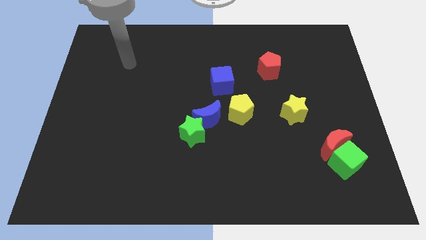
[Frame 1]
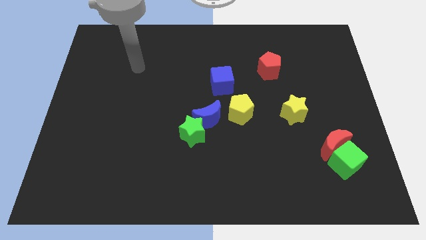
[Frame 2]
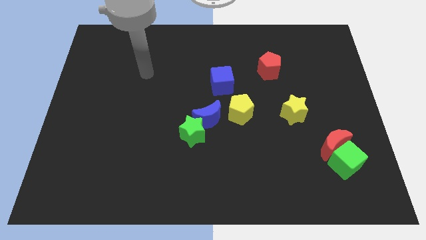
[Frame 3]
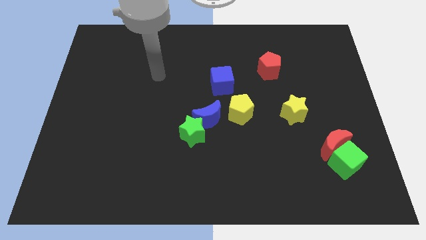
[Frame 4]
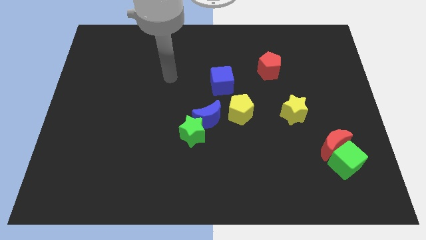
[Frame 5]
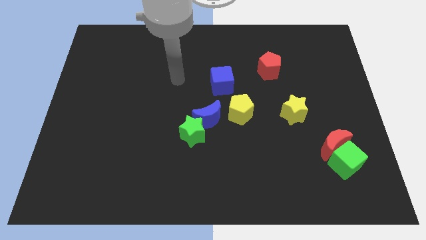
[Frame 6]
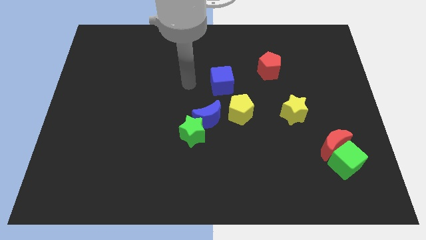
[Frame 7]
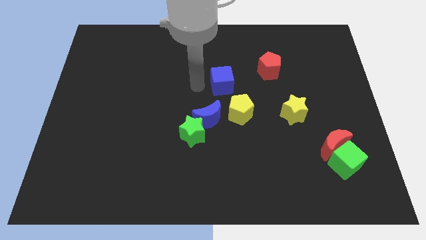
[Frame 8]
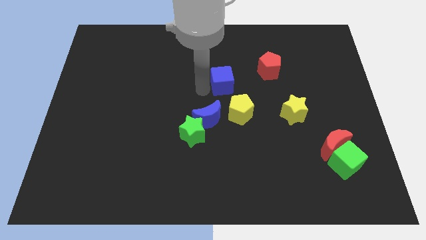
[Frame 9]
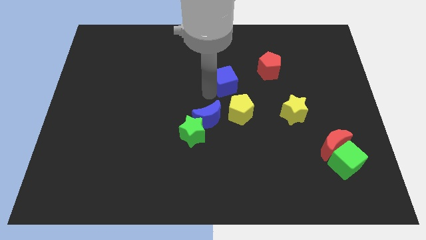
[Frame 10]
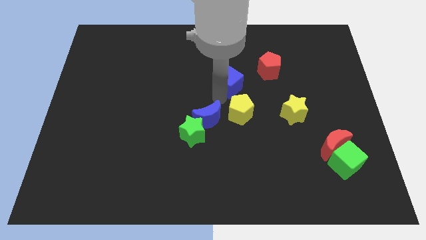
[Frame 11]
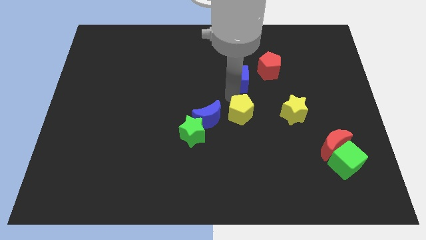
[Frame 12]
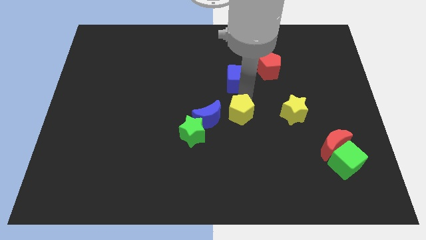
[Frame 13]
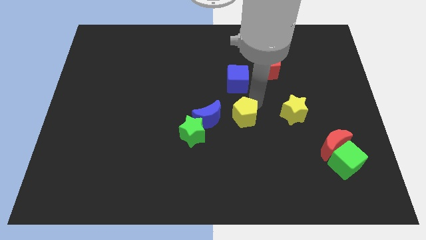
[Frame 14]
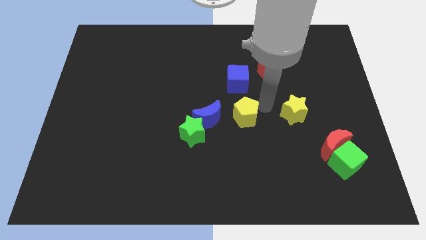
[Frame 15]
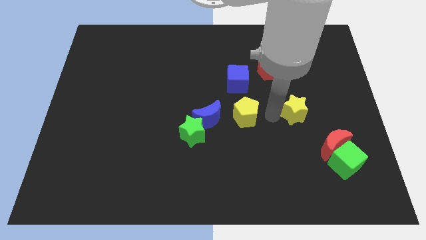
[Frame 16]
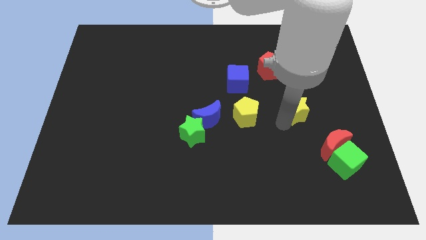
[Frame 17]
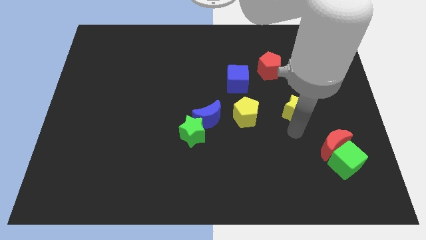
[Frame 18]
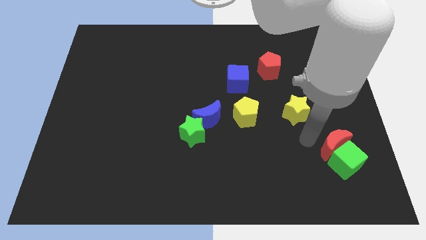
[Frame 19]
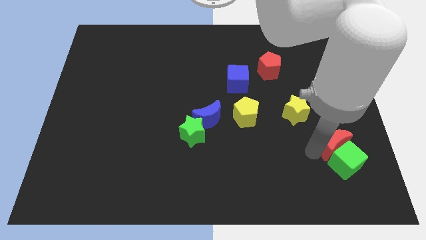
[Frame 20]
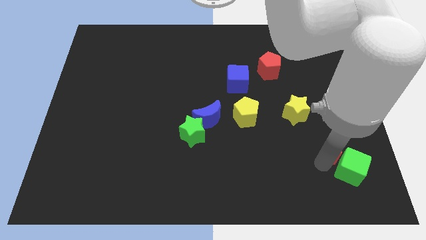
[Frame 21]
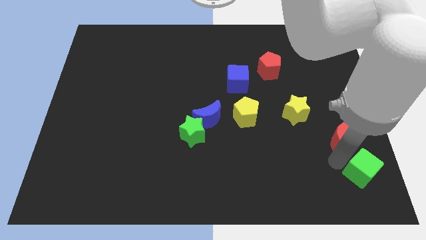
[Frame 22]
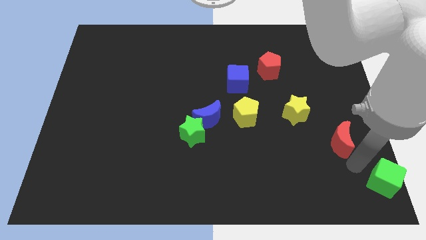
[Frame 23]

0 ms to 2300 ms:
separate the red moon from the green cube

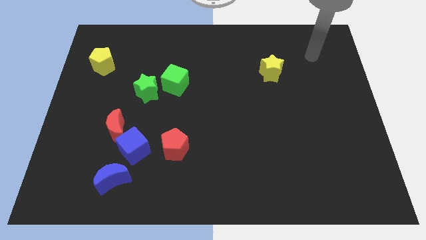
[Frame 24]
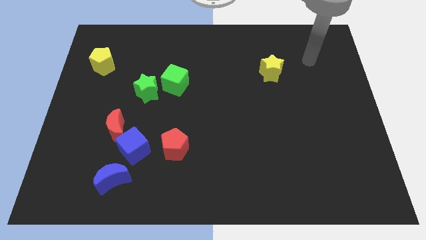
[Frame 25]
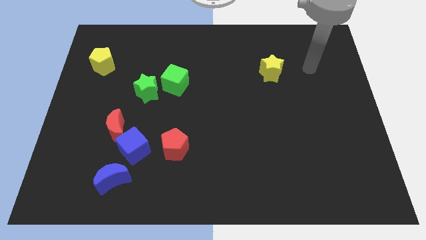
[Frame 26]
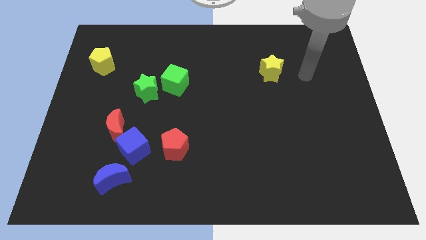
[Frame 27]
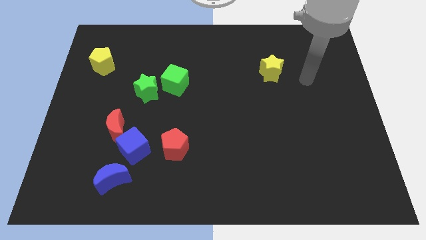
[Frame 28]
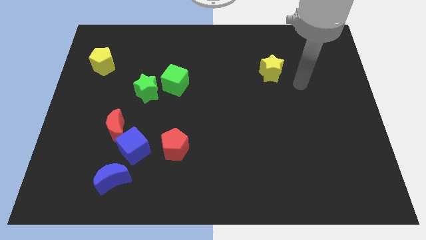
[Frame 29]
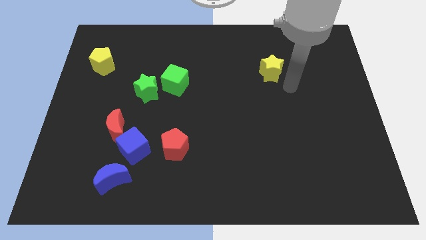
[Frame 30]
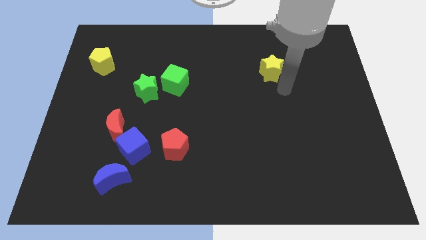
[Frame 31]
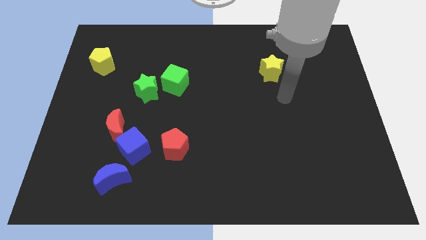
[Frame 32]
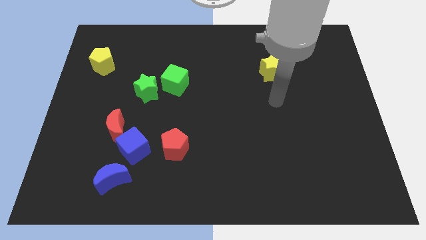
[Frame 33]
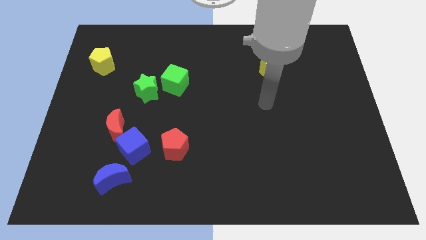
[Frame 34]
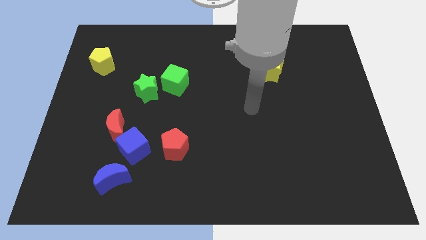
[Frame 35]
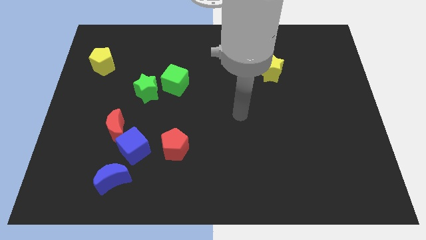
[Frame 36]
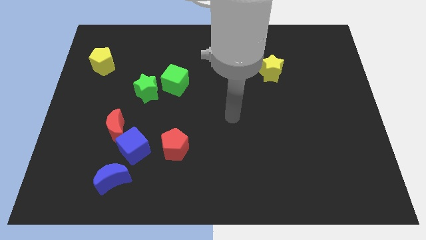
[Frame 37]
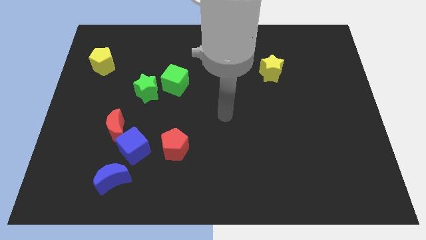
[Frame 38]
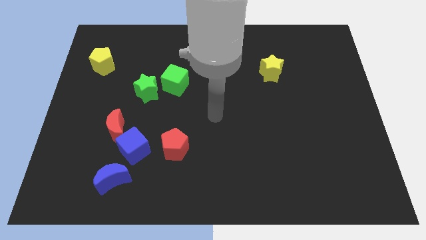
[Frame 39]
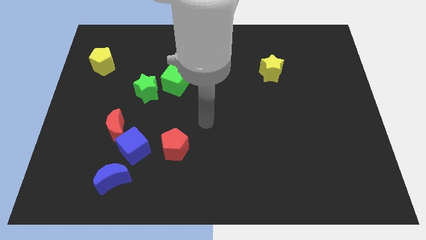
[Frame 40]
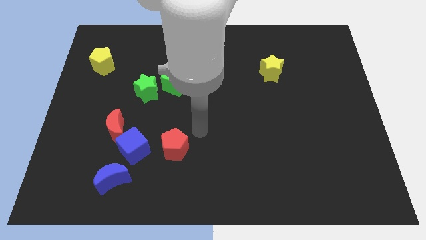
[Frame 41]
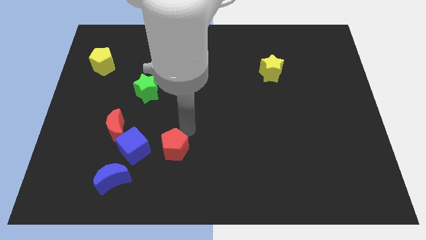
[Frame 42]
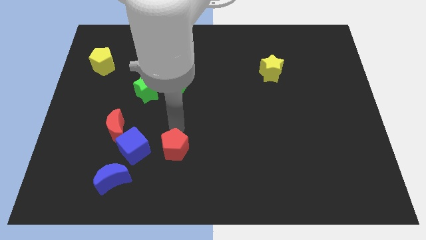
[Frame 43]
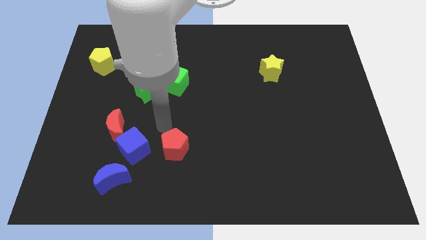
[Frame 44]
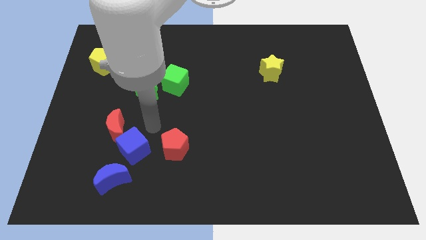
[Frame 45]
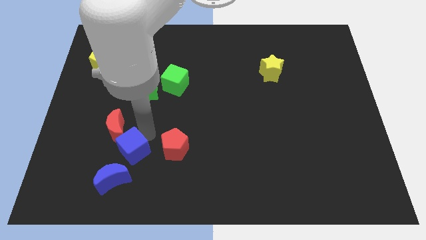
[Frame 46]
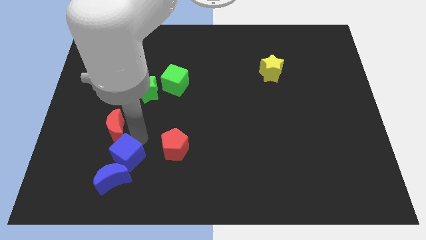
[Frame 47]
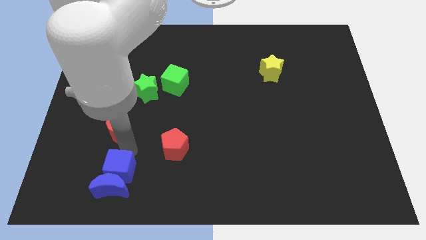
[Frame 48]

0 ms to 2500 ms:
move the red moon away from the blue cube

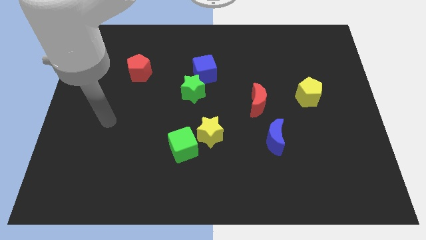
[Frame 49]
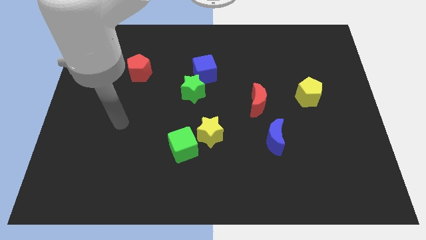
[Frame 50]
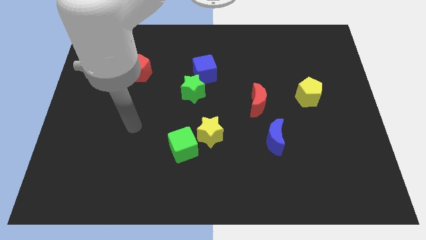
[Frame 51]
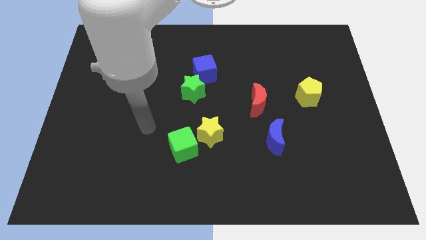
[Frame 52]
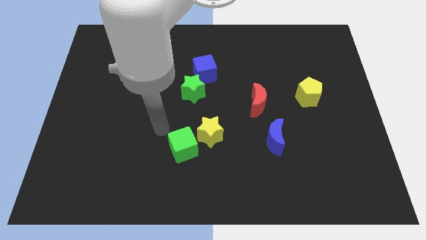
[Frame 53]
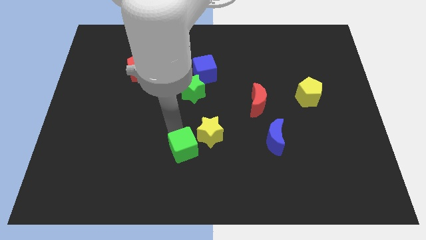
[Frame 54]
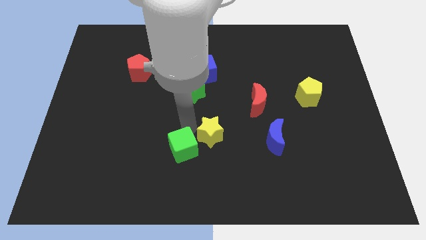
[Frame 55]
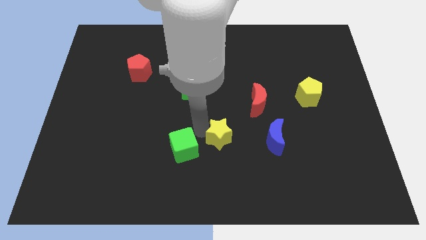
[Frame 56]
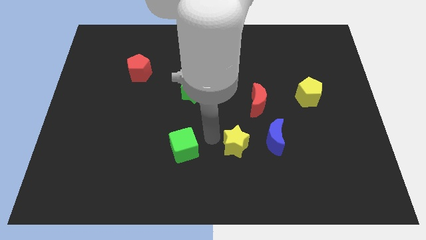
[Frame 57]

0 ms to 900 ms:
pull the green cube apart from the yellow star

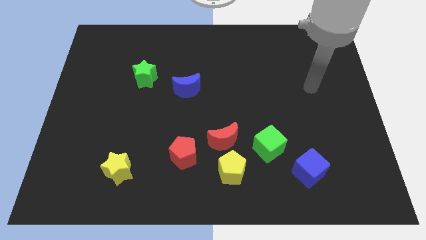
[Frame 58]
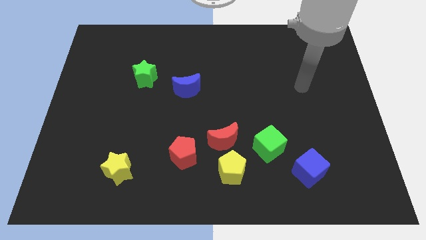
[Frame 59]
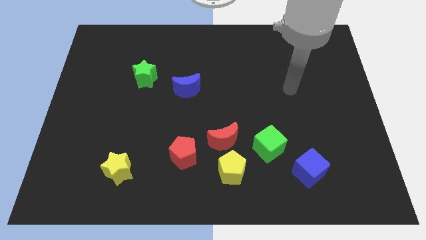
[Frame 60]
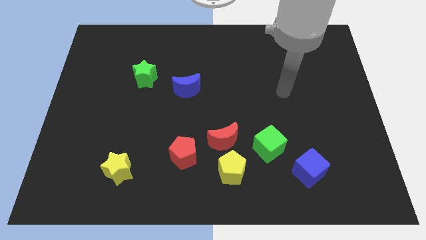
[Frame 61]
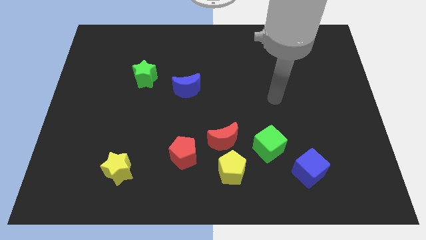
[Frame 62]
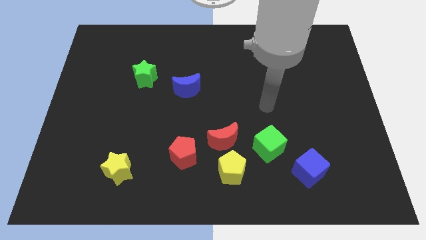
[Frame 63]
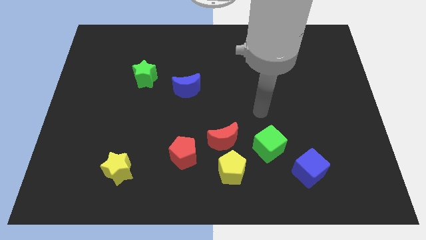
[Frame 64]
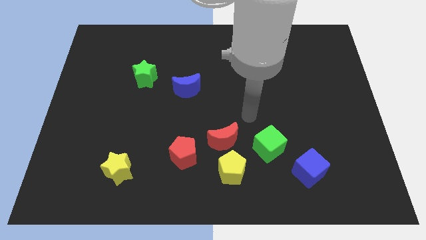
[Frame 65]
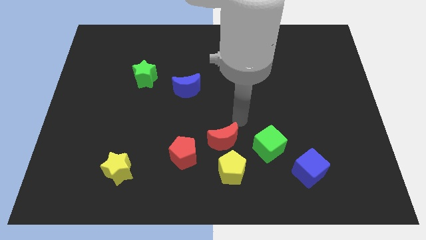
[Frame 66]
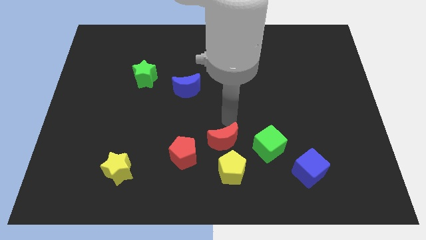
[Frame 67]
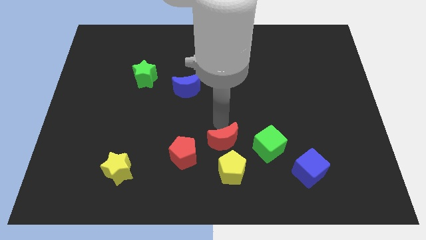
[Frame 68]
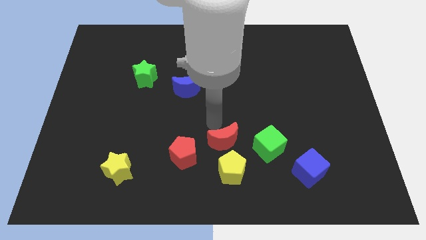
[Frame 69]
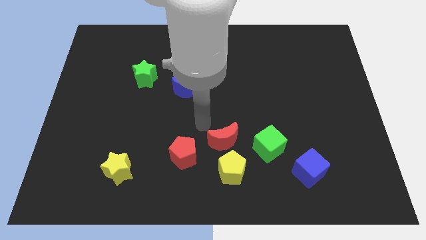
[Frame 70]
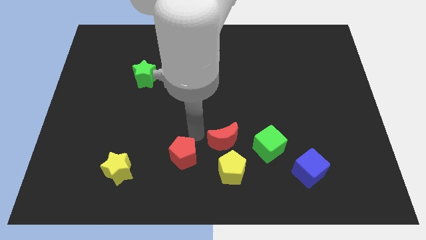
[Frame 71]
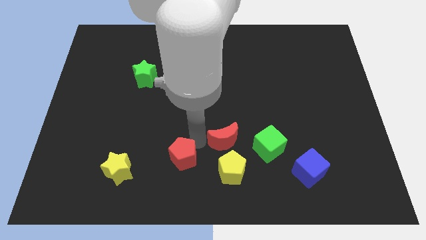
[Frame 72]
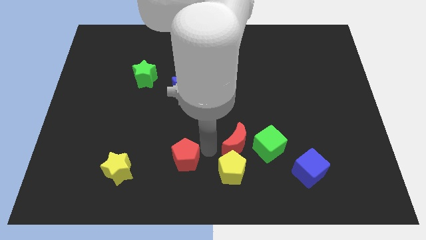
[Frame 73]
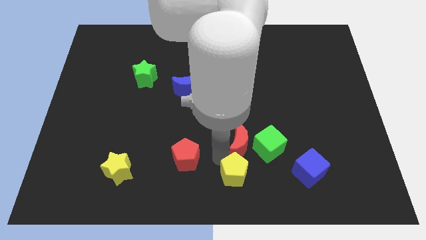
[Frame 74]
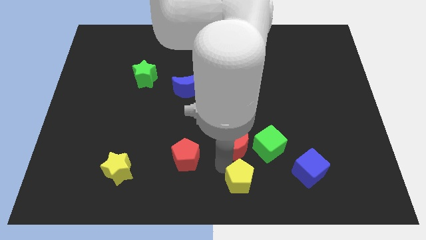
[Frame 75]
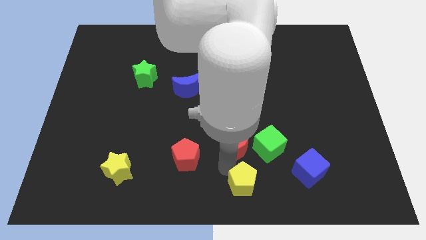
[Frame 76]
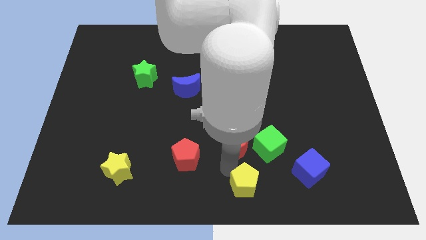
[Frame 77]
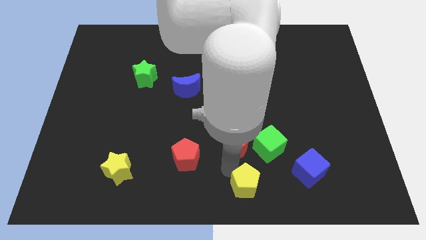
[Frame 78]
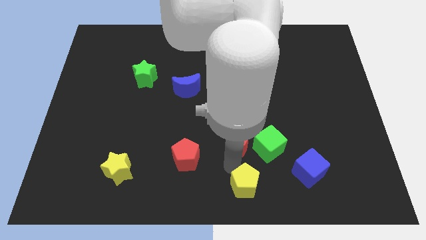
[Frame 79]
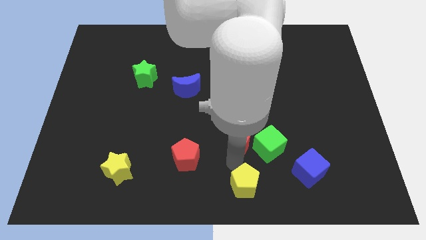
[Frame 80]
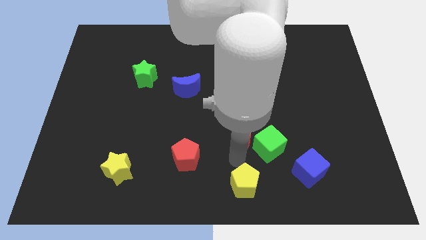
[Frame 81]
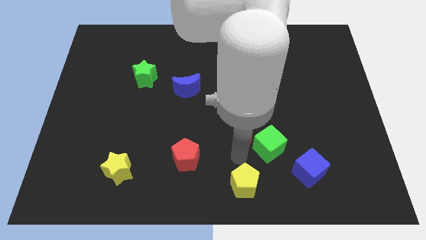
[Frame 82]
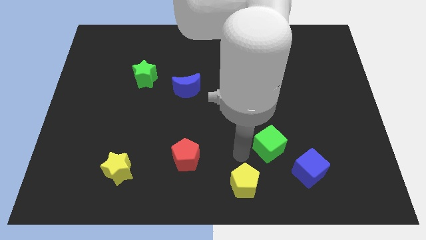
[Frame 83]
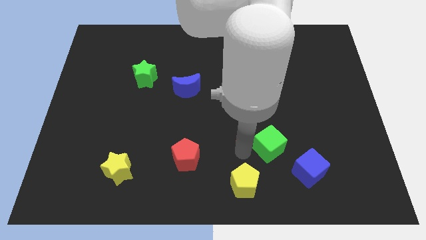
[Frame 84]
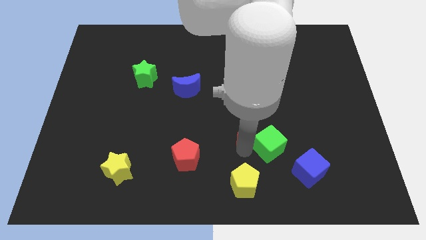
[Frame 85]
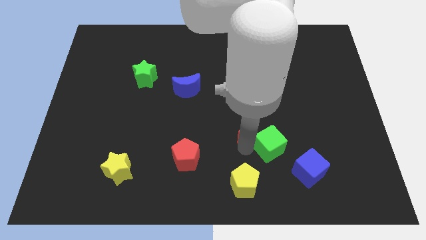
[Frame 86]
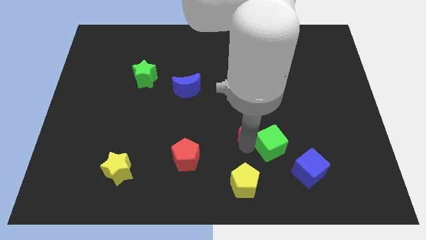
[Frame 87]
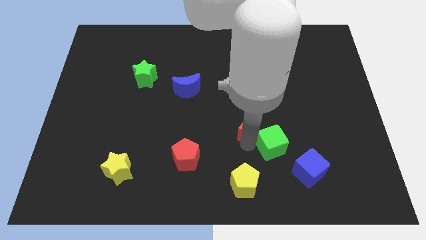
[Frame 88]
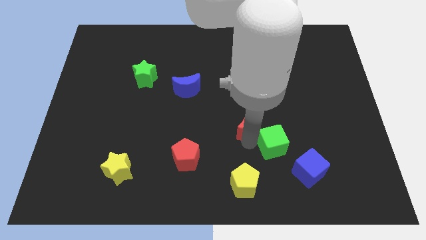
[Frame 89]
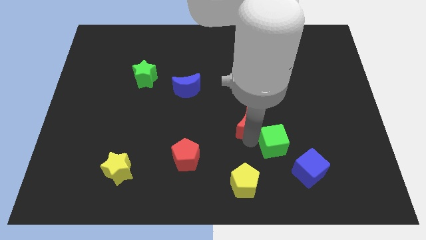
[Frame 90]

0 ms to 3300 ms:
pull the red moon apart from the yellow pentagon, red pentagon, and green cube

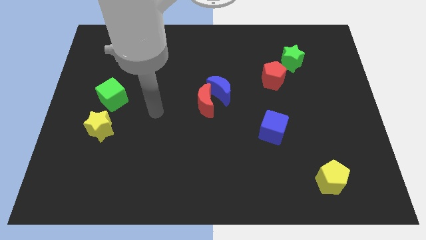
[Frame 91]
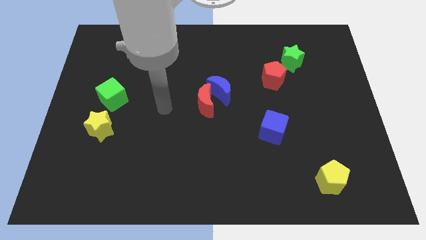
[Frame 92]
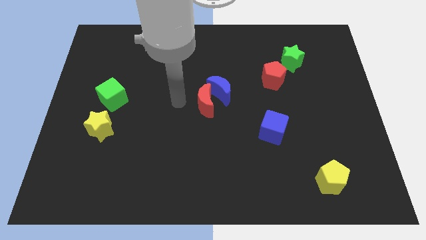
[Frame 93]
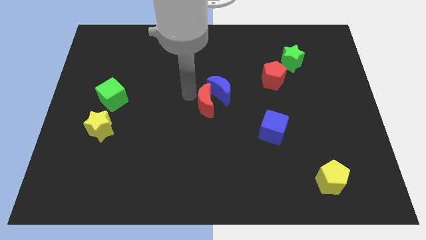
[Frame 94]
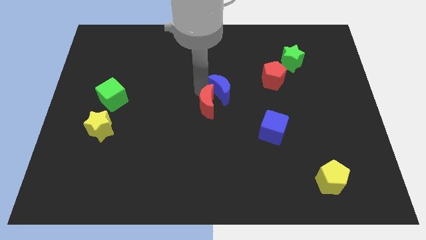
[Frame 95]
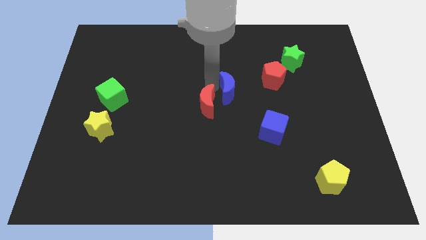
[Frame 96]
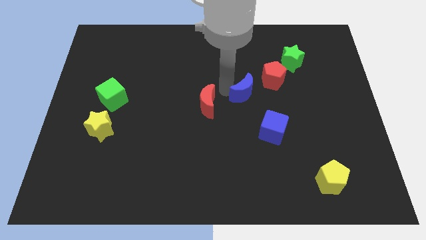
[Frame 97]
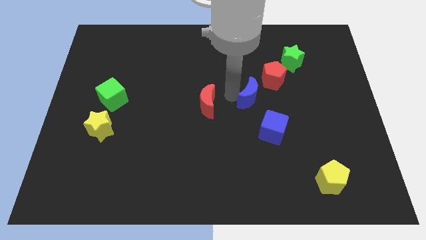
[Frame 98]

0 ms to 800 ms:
separate the red moon from the blue moon
